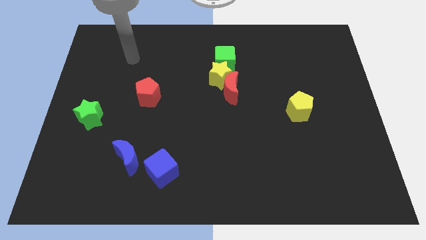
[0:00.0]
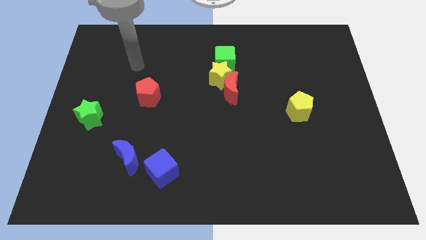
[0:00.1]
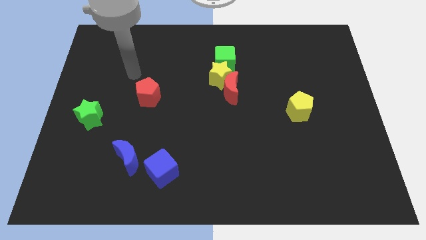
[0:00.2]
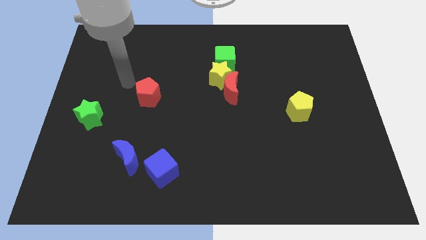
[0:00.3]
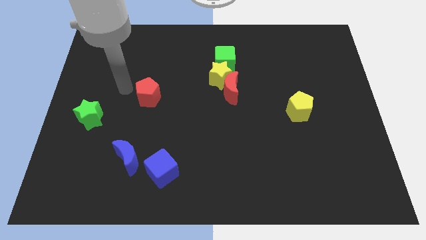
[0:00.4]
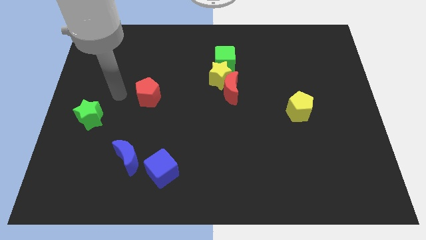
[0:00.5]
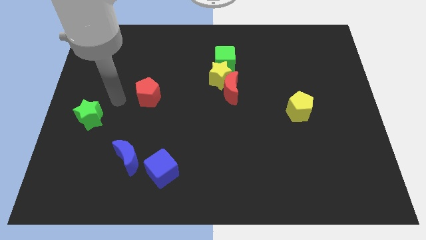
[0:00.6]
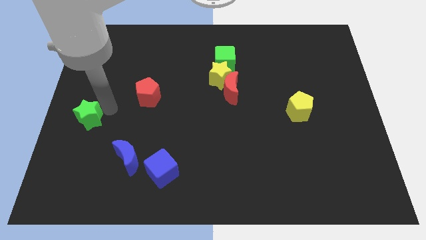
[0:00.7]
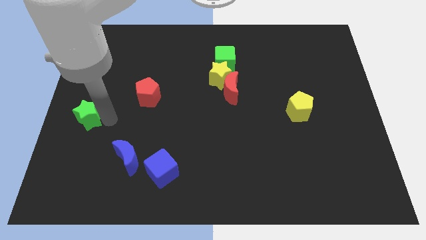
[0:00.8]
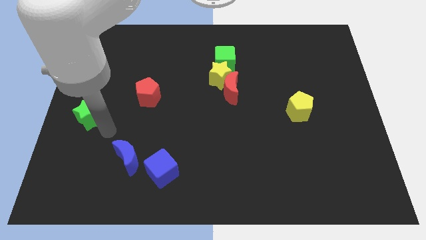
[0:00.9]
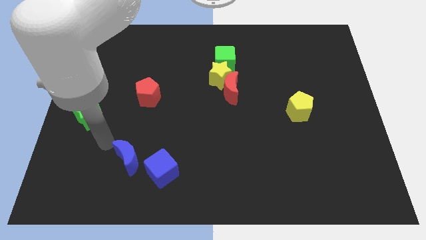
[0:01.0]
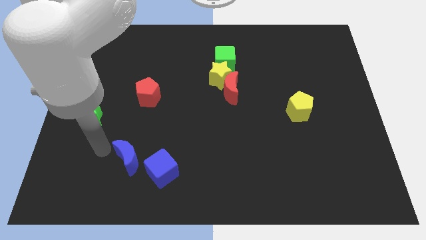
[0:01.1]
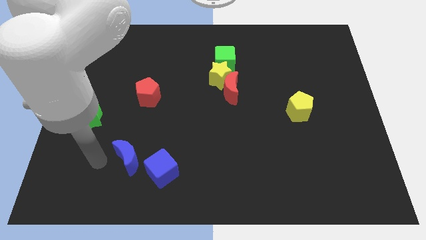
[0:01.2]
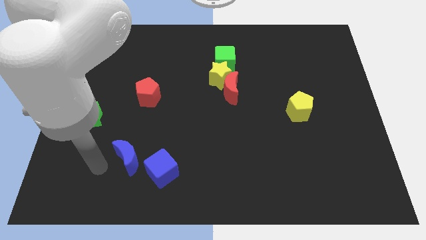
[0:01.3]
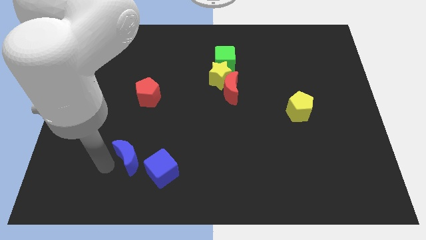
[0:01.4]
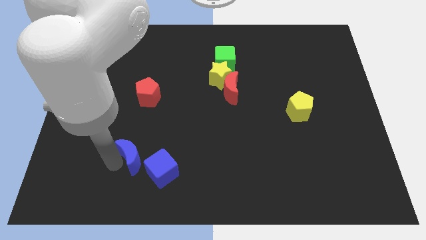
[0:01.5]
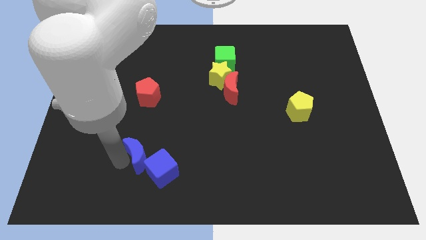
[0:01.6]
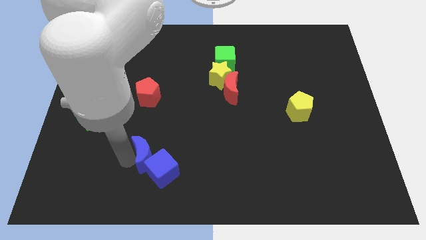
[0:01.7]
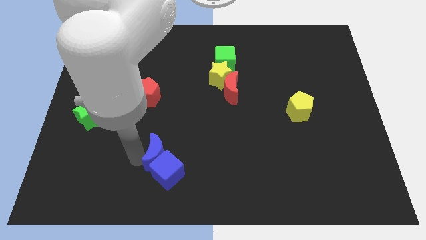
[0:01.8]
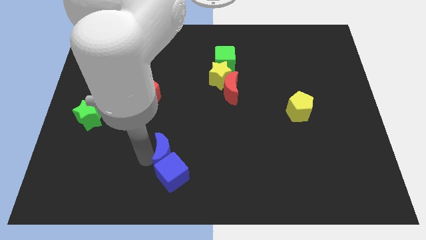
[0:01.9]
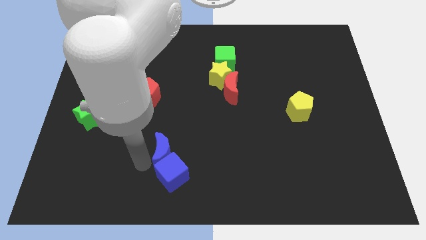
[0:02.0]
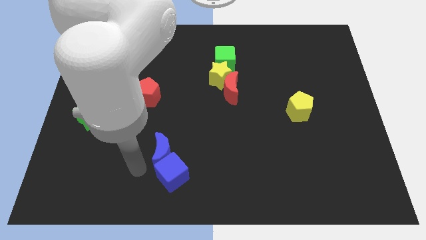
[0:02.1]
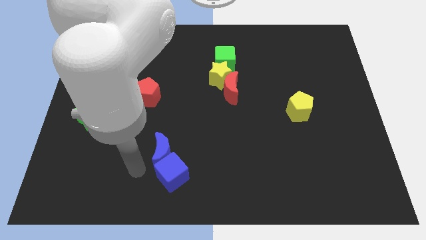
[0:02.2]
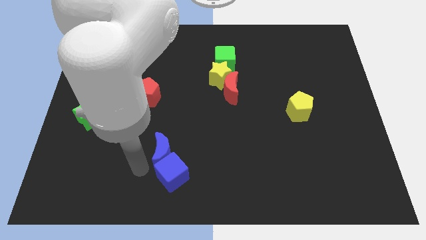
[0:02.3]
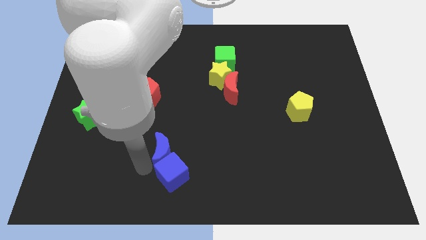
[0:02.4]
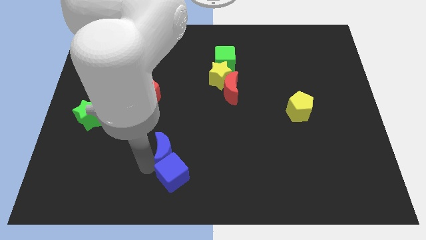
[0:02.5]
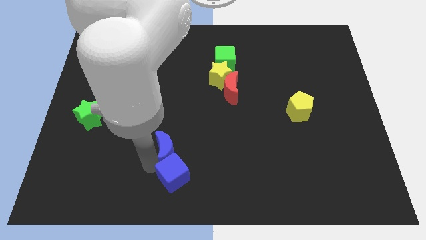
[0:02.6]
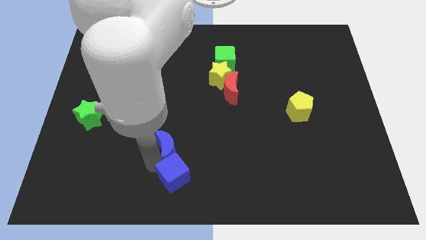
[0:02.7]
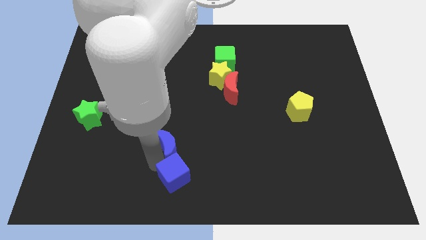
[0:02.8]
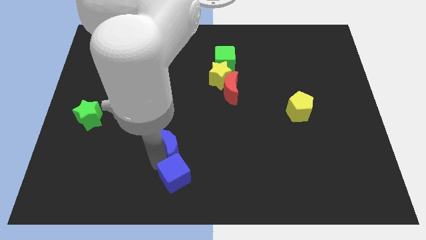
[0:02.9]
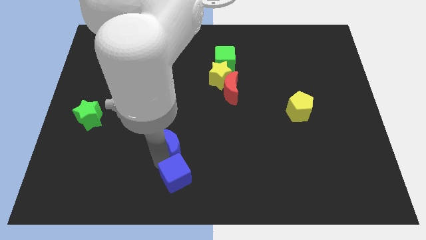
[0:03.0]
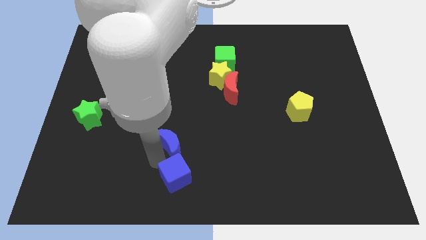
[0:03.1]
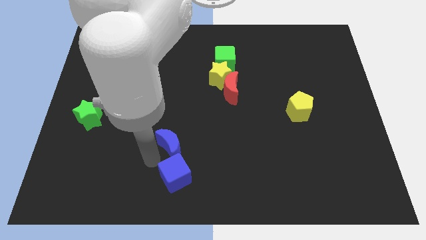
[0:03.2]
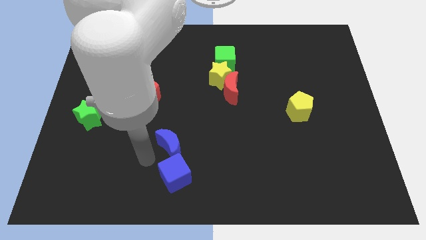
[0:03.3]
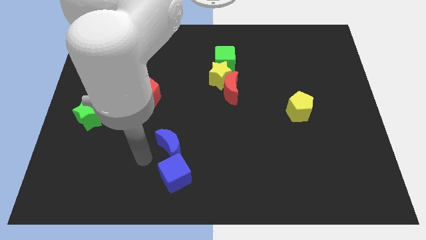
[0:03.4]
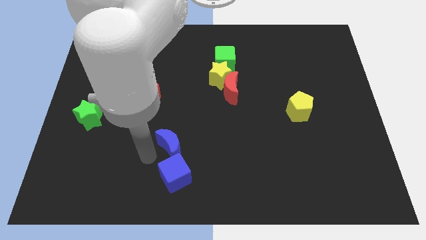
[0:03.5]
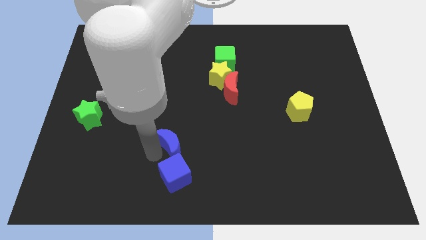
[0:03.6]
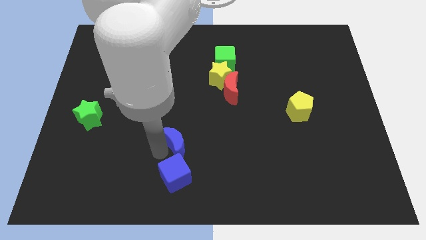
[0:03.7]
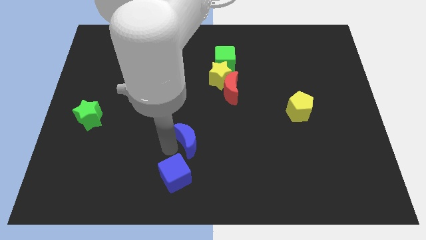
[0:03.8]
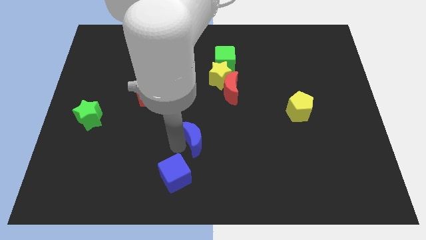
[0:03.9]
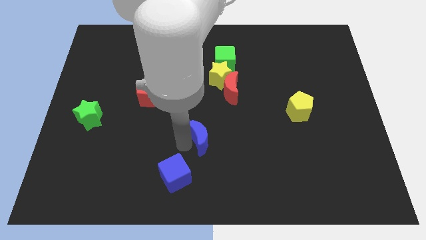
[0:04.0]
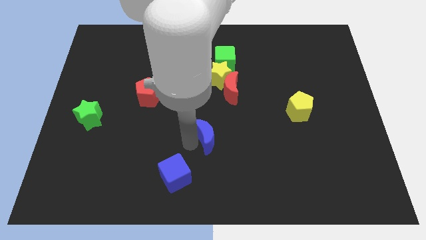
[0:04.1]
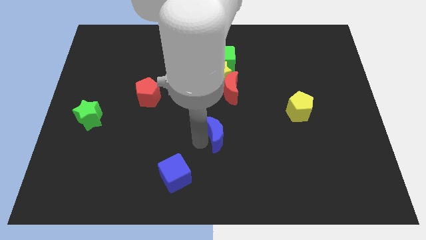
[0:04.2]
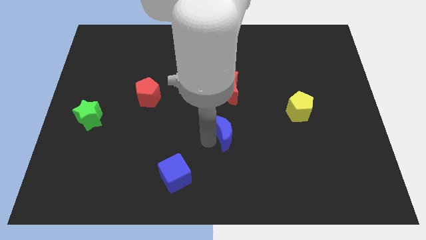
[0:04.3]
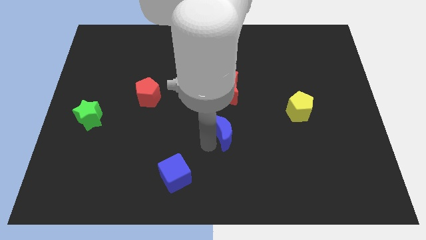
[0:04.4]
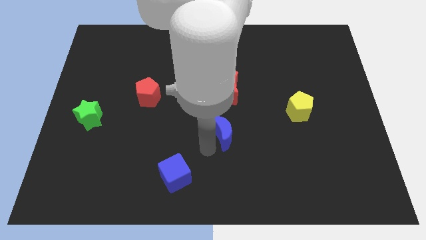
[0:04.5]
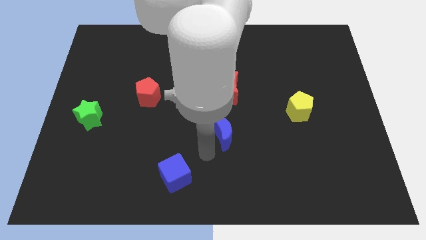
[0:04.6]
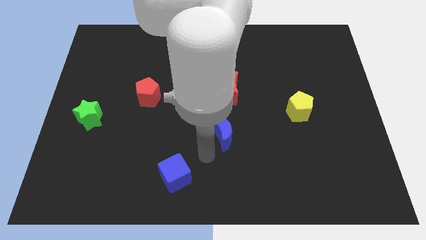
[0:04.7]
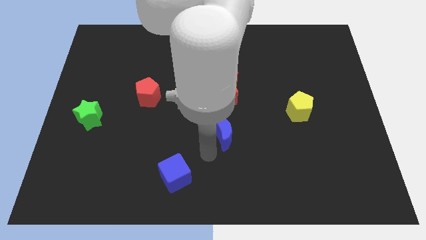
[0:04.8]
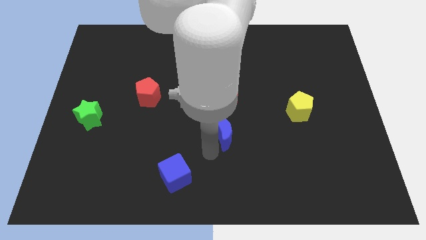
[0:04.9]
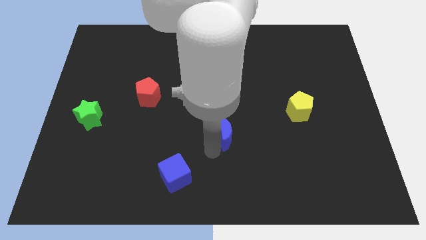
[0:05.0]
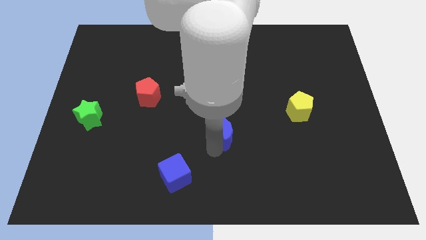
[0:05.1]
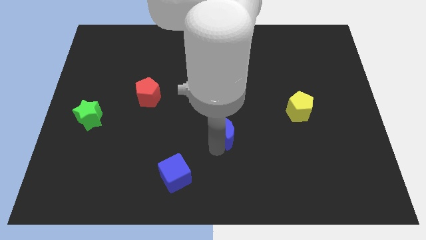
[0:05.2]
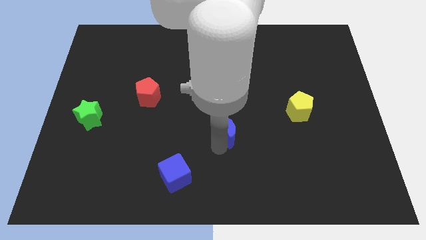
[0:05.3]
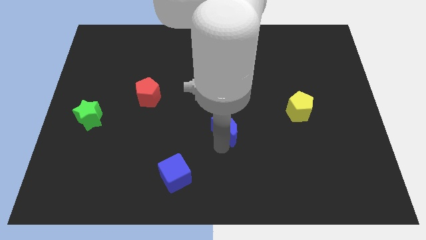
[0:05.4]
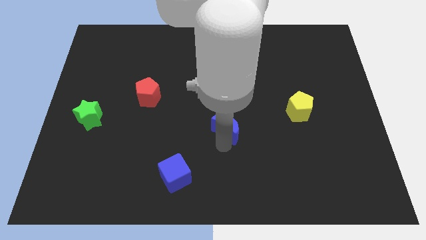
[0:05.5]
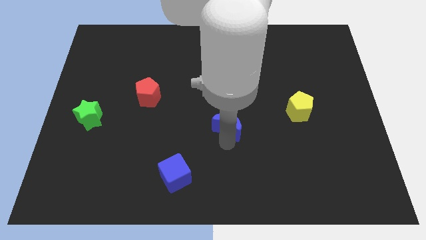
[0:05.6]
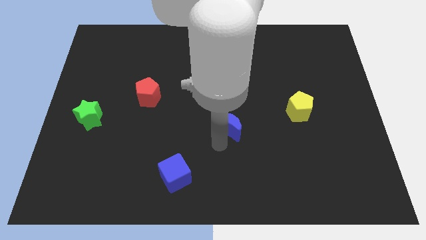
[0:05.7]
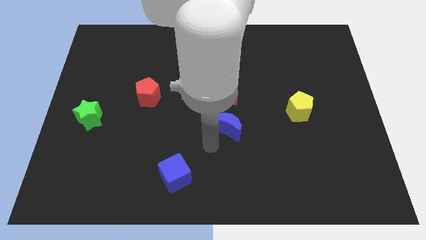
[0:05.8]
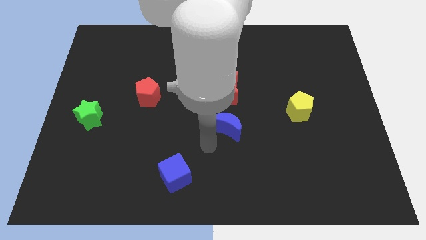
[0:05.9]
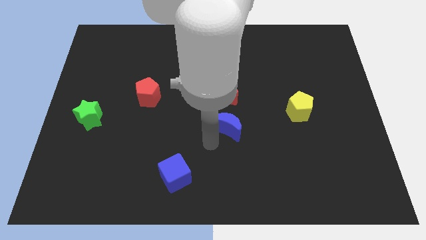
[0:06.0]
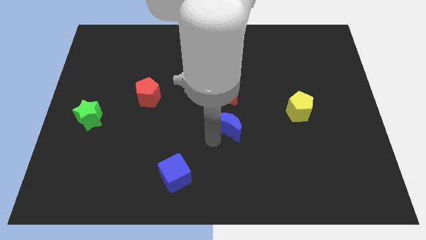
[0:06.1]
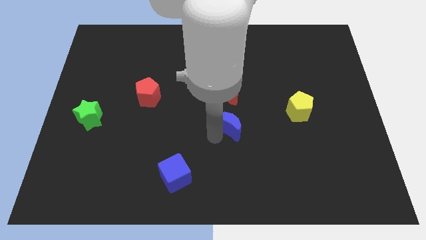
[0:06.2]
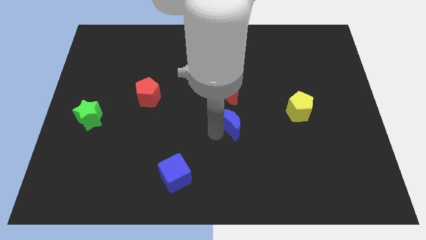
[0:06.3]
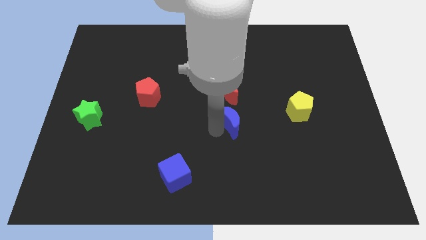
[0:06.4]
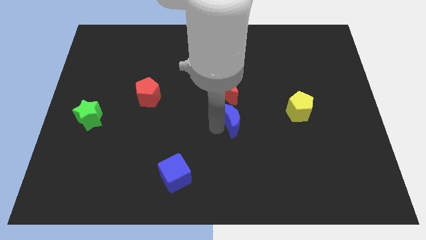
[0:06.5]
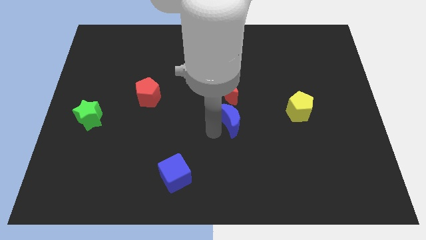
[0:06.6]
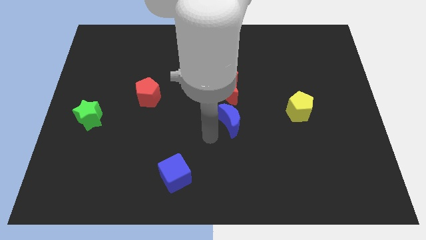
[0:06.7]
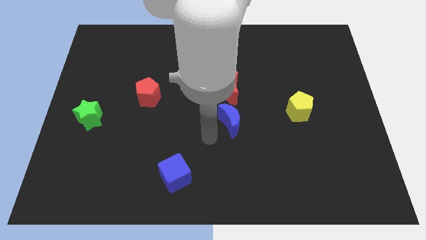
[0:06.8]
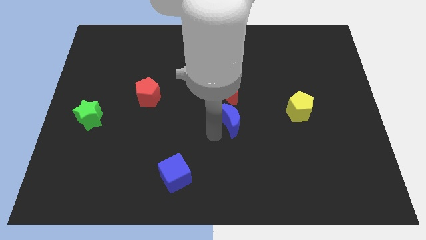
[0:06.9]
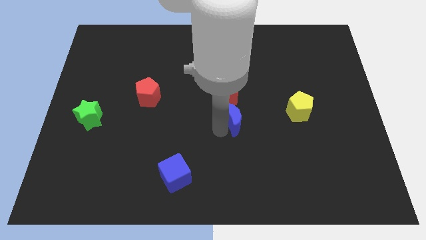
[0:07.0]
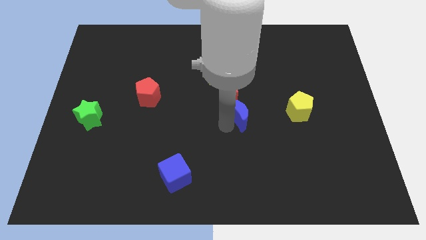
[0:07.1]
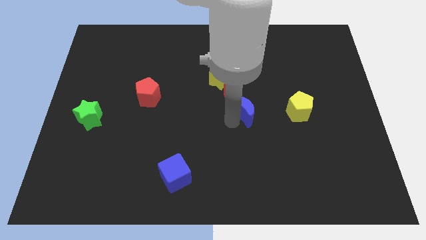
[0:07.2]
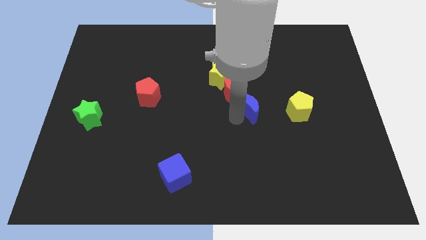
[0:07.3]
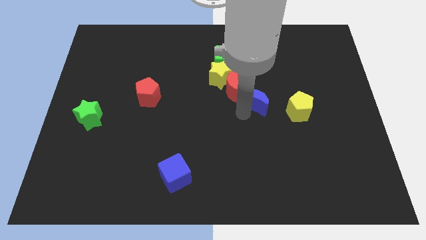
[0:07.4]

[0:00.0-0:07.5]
move the blue moon just right of the red moon

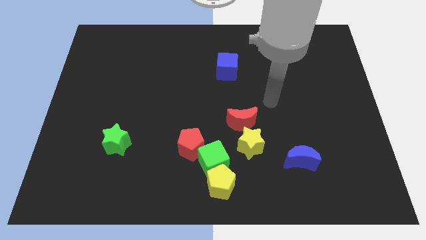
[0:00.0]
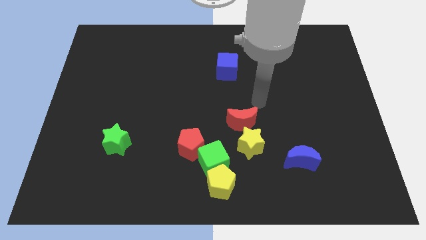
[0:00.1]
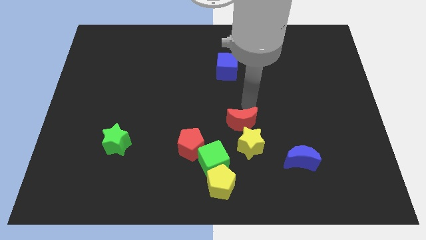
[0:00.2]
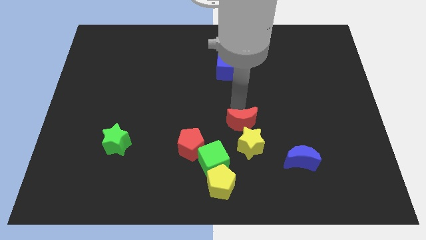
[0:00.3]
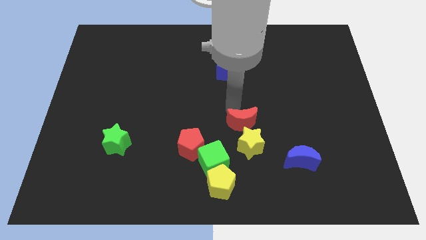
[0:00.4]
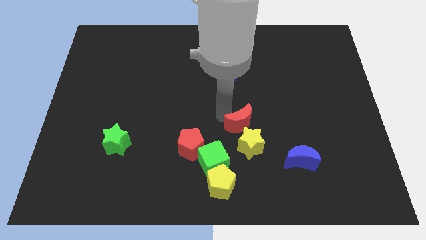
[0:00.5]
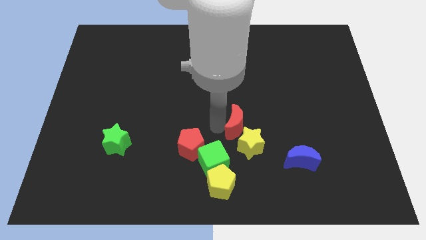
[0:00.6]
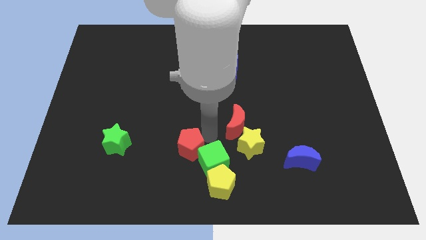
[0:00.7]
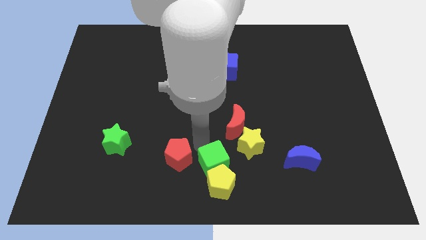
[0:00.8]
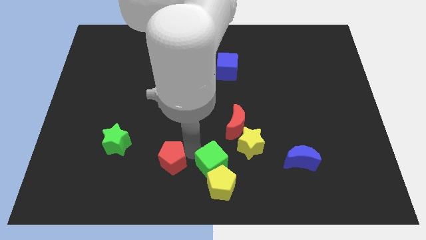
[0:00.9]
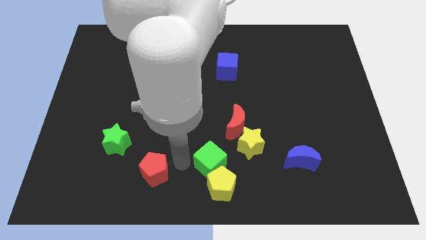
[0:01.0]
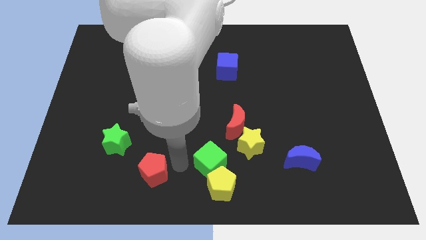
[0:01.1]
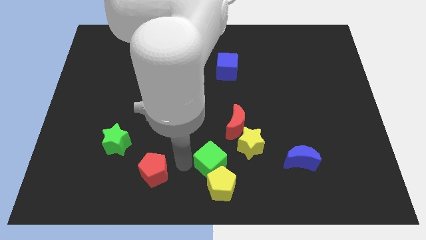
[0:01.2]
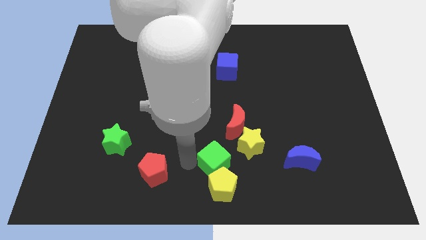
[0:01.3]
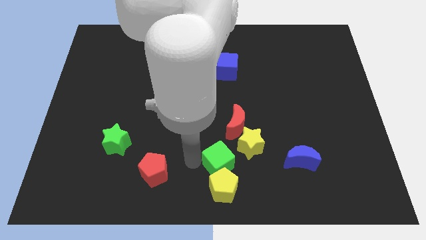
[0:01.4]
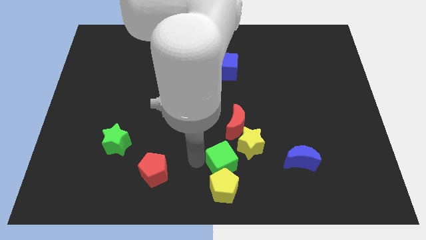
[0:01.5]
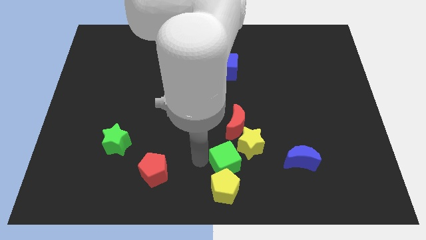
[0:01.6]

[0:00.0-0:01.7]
push the green cube just left of the blue moon
